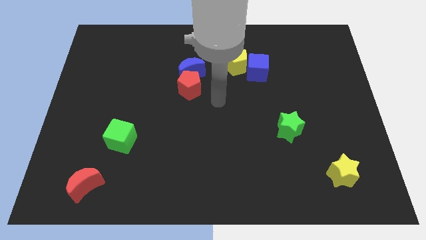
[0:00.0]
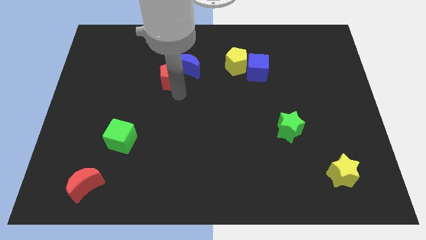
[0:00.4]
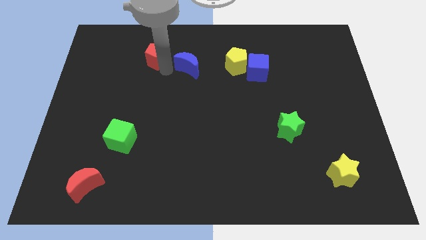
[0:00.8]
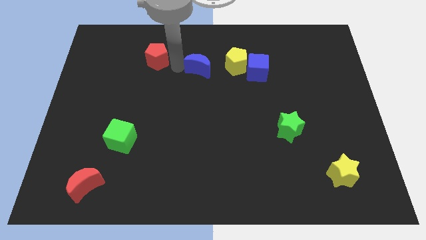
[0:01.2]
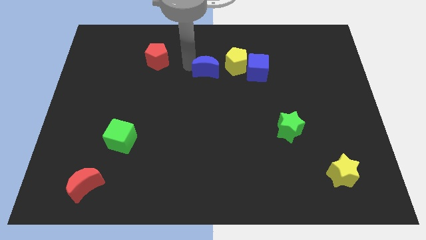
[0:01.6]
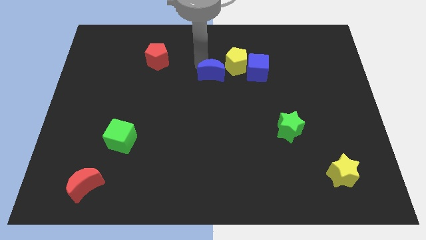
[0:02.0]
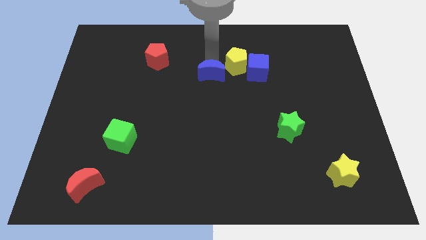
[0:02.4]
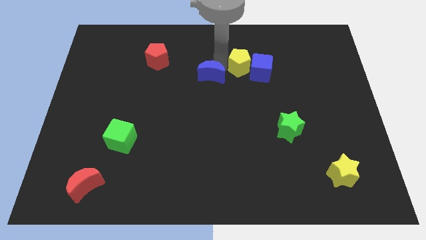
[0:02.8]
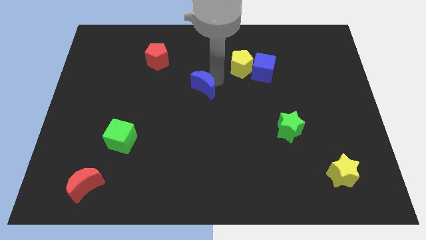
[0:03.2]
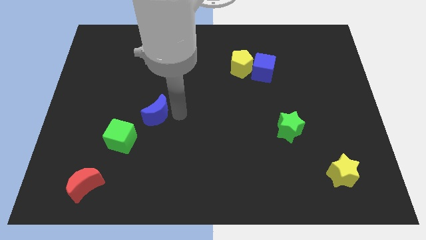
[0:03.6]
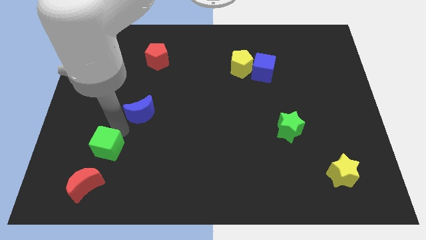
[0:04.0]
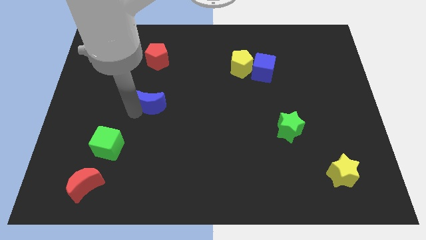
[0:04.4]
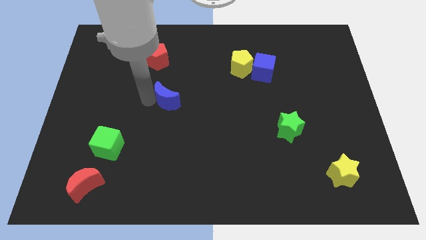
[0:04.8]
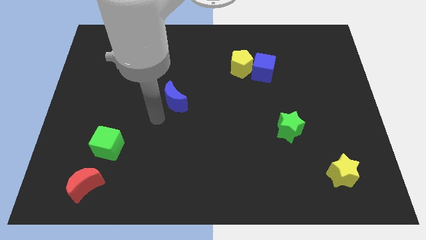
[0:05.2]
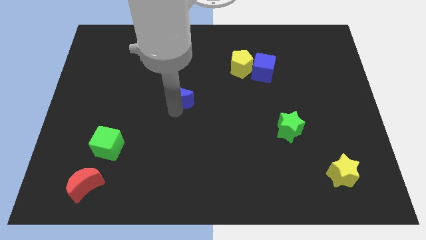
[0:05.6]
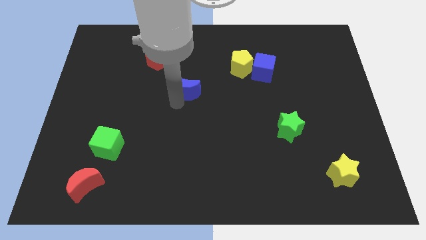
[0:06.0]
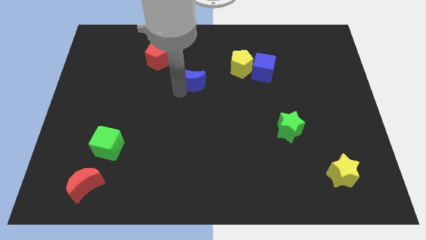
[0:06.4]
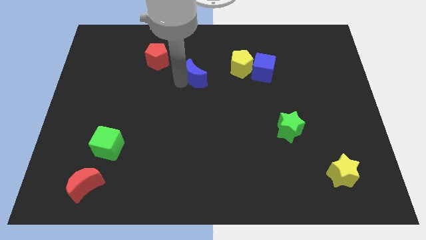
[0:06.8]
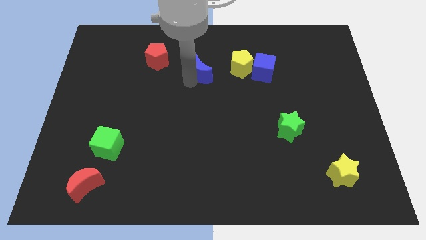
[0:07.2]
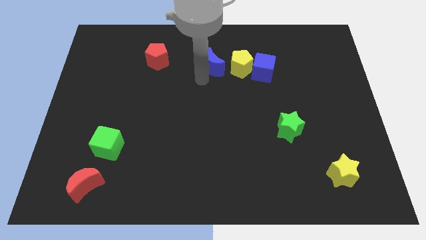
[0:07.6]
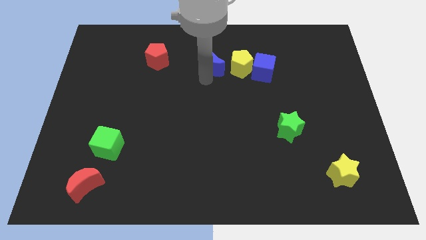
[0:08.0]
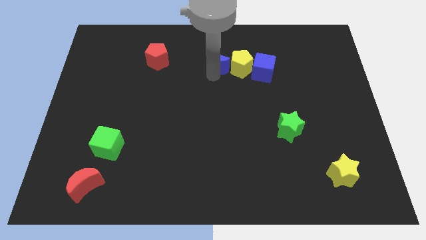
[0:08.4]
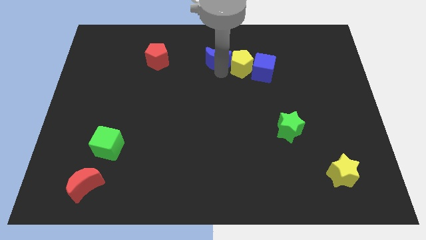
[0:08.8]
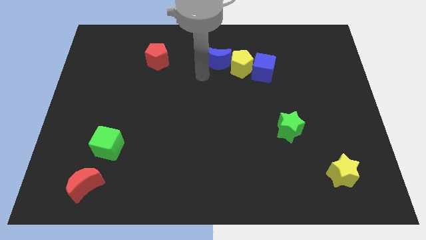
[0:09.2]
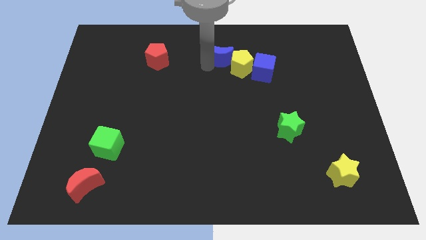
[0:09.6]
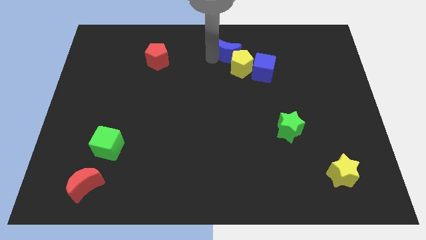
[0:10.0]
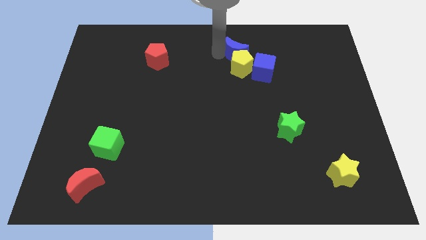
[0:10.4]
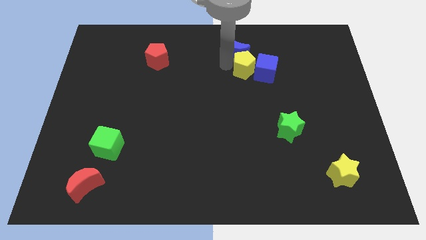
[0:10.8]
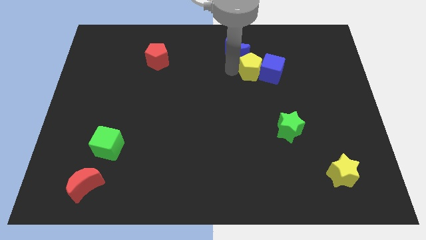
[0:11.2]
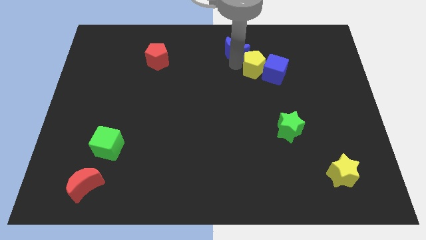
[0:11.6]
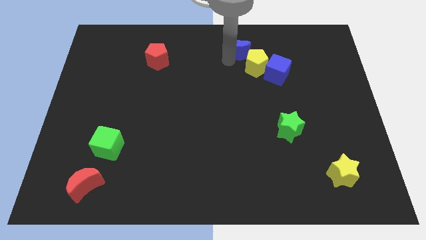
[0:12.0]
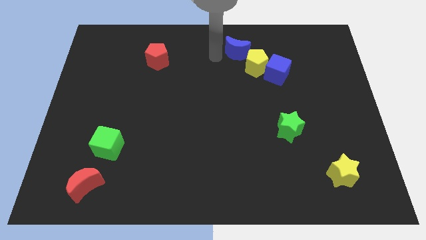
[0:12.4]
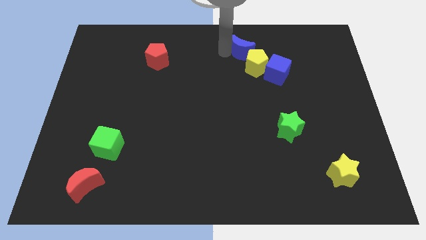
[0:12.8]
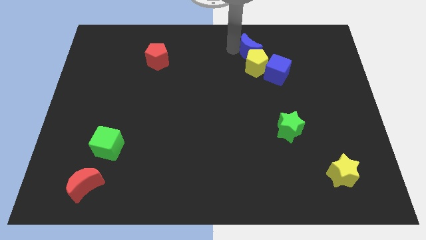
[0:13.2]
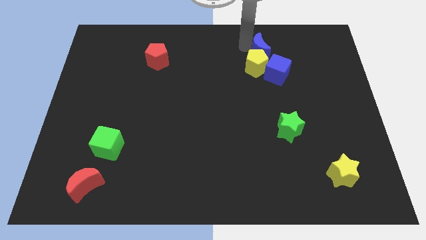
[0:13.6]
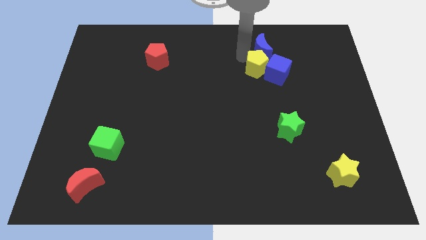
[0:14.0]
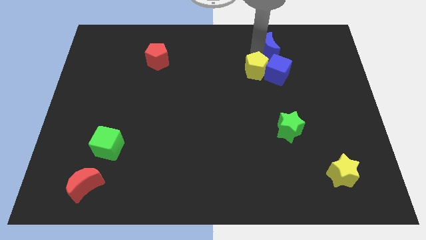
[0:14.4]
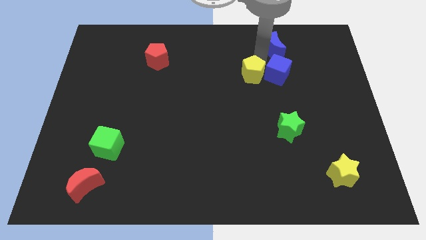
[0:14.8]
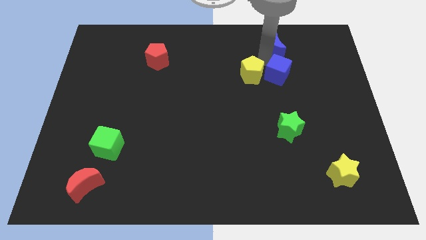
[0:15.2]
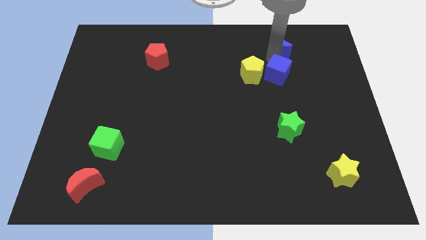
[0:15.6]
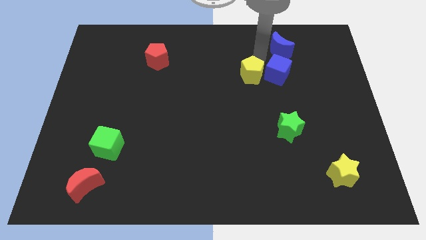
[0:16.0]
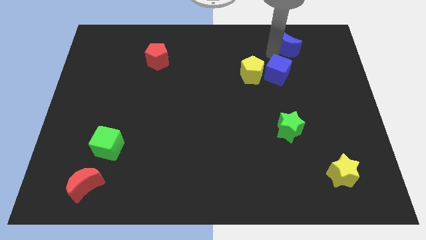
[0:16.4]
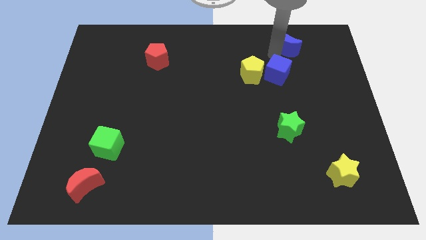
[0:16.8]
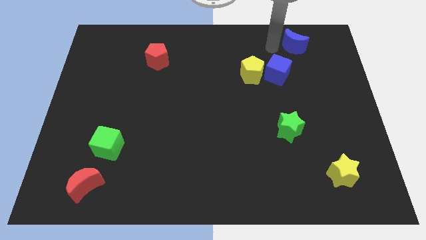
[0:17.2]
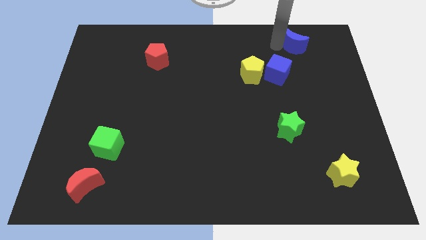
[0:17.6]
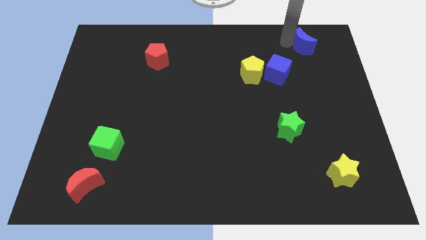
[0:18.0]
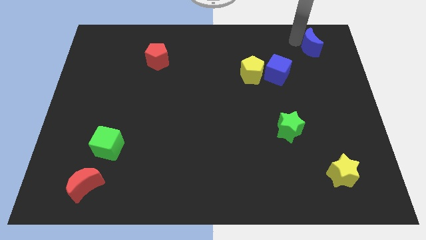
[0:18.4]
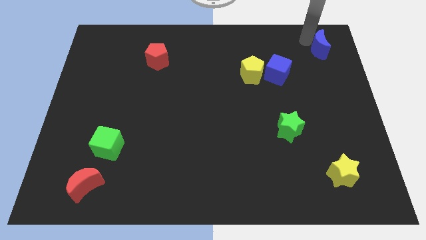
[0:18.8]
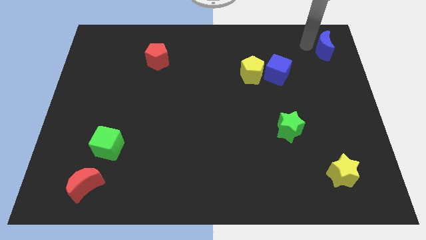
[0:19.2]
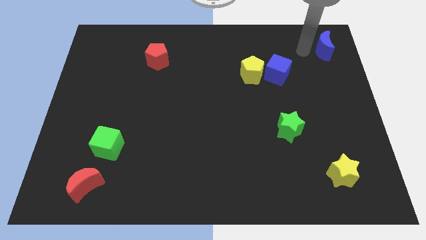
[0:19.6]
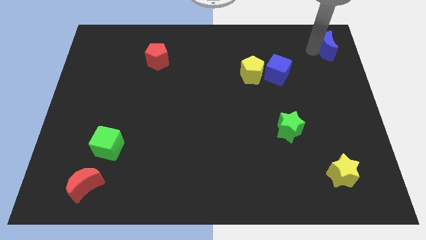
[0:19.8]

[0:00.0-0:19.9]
put the blue moon to the top right
